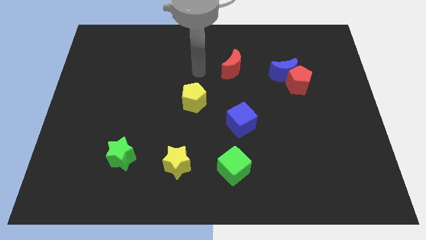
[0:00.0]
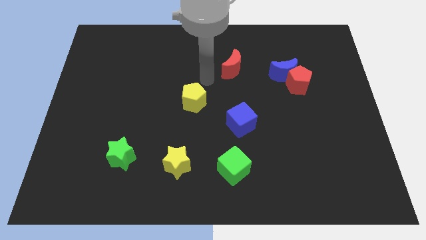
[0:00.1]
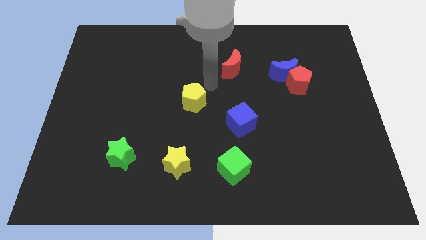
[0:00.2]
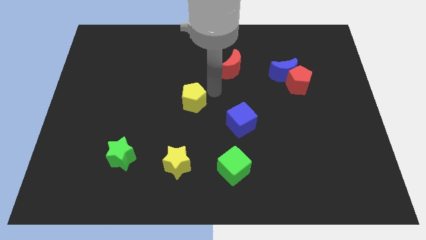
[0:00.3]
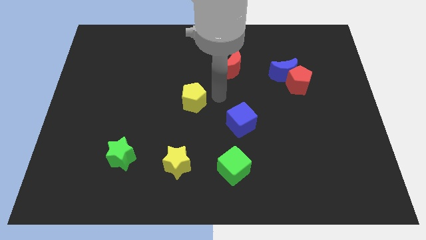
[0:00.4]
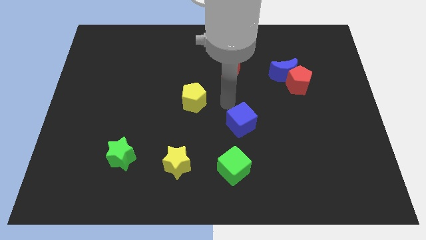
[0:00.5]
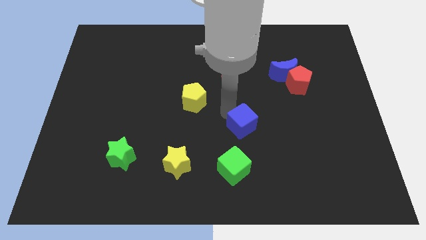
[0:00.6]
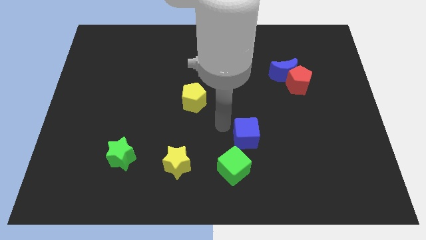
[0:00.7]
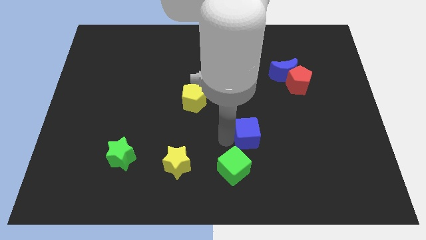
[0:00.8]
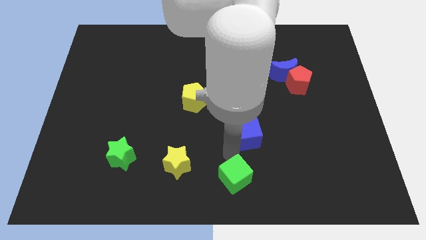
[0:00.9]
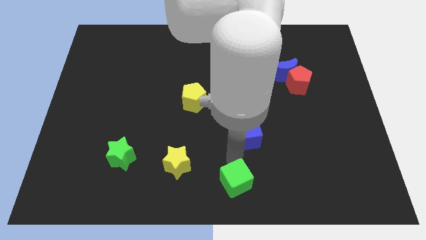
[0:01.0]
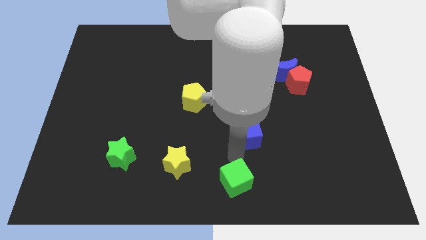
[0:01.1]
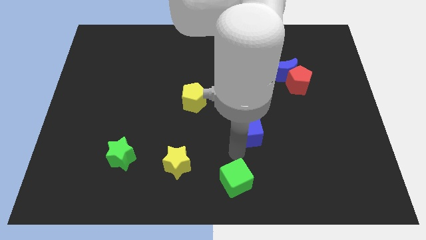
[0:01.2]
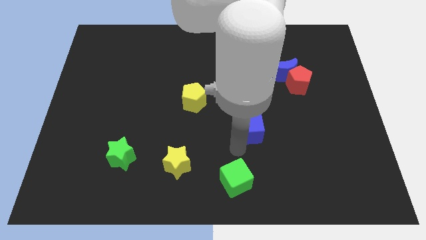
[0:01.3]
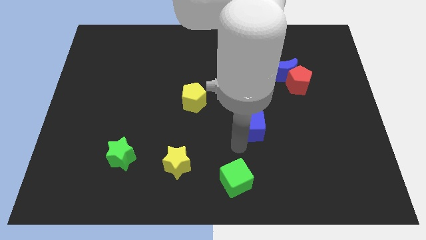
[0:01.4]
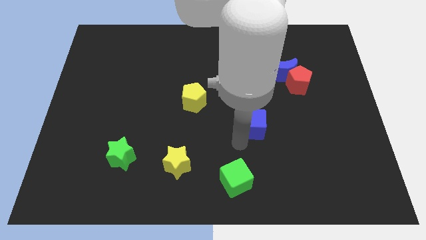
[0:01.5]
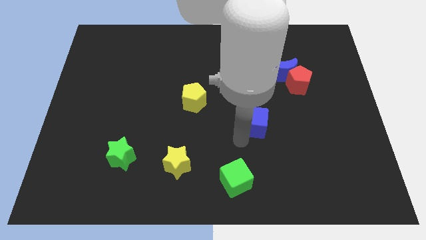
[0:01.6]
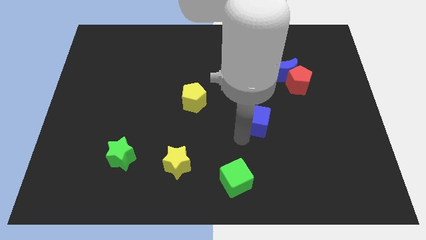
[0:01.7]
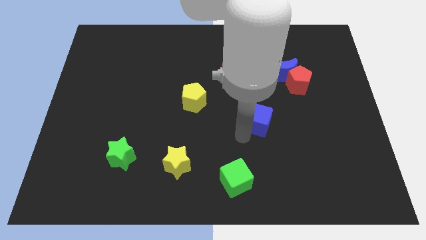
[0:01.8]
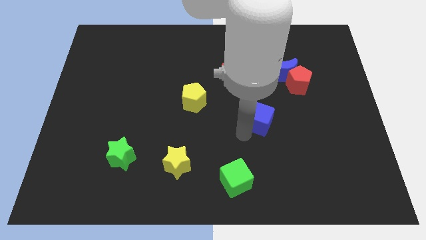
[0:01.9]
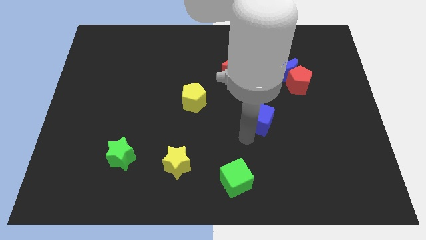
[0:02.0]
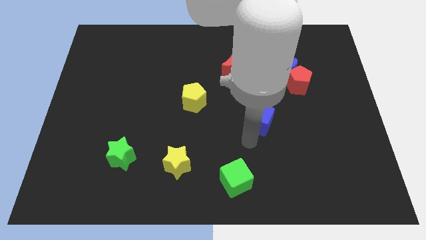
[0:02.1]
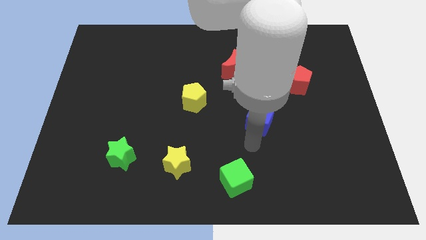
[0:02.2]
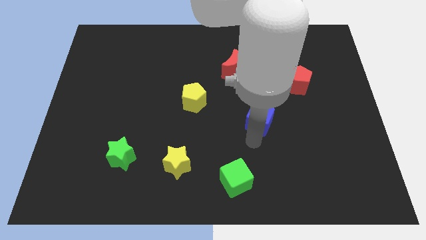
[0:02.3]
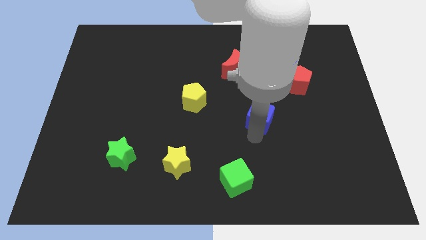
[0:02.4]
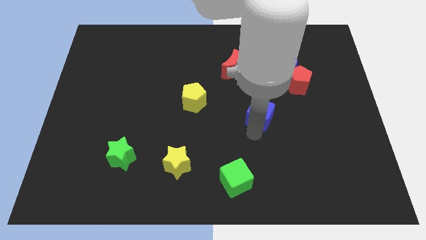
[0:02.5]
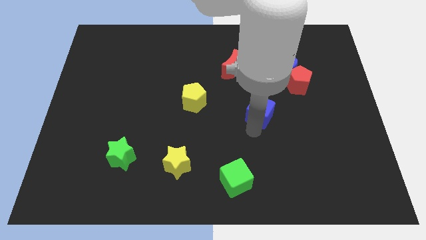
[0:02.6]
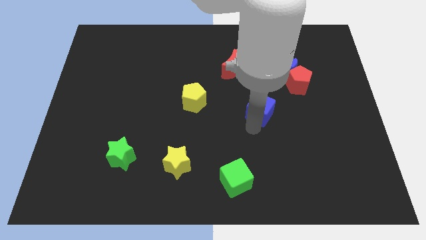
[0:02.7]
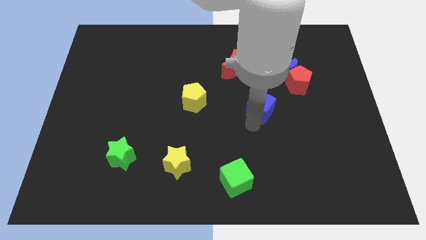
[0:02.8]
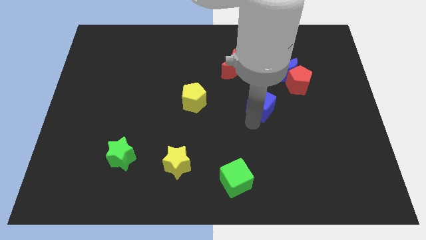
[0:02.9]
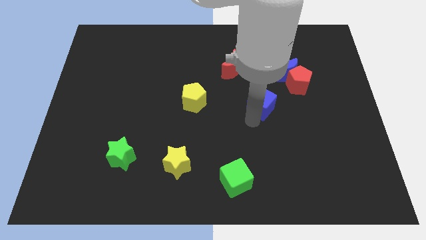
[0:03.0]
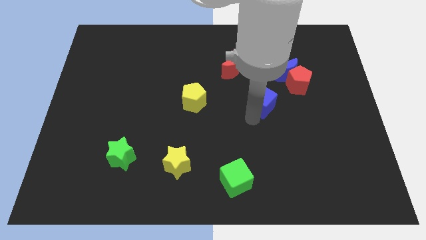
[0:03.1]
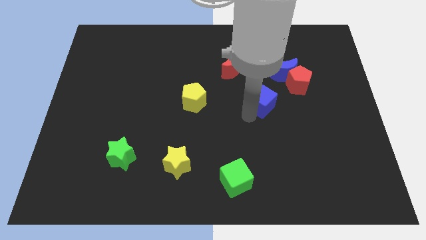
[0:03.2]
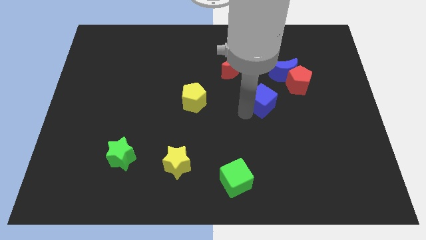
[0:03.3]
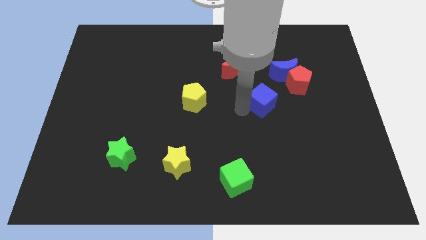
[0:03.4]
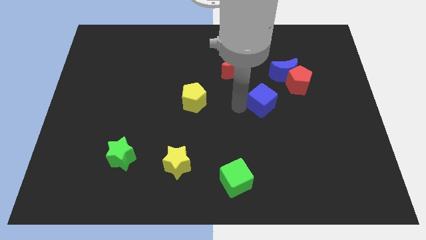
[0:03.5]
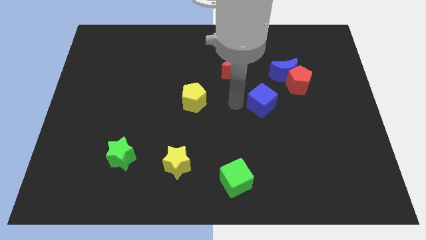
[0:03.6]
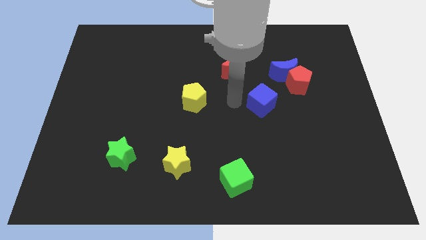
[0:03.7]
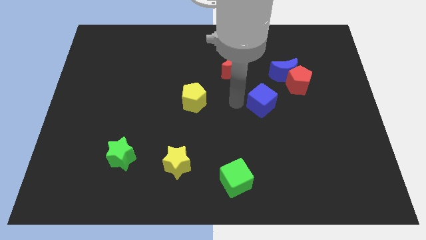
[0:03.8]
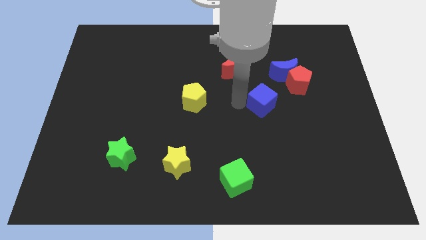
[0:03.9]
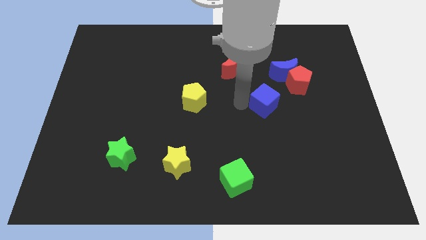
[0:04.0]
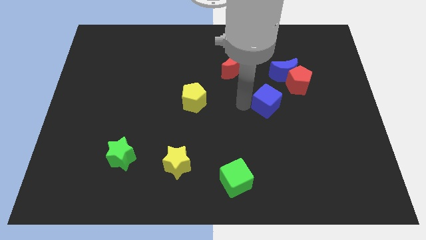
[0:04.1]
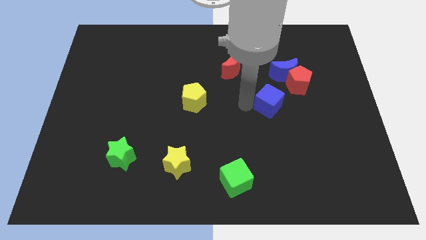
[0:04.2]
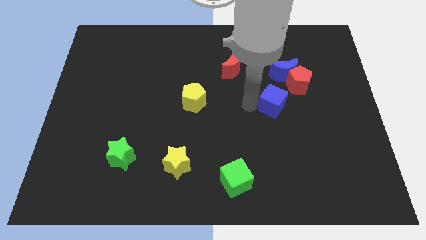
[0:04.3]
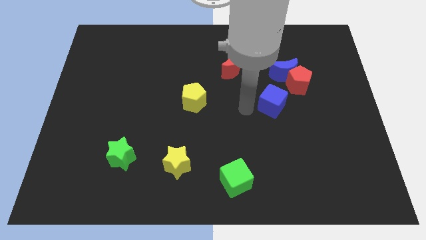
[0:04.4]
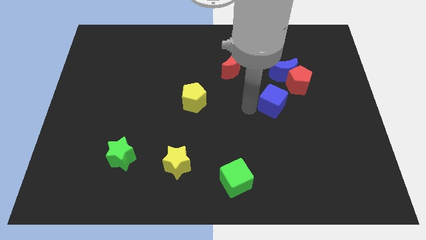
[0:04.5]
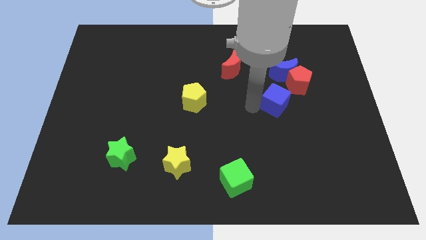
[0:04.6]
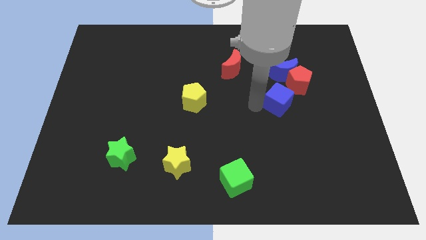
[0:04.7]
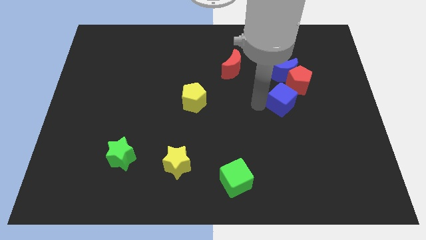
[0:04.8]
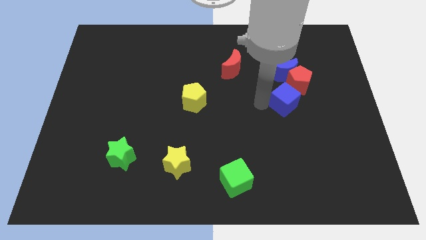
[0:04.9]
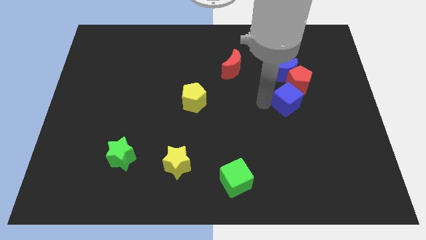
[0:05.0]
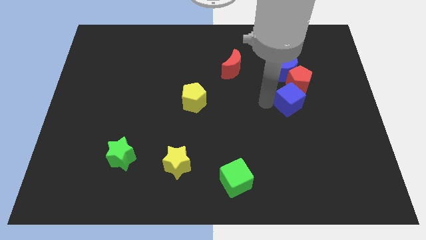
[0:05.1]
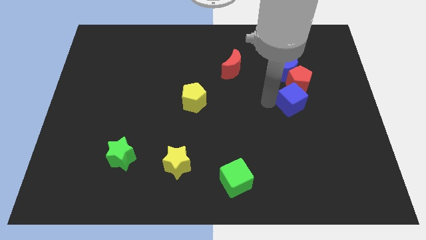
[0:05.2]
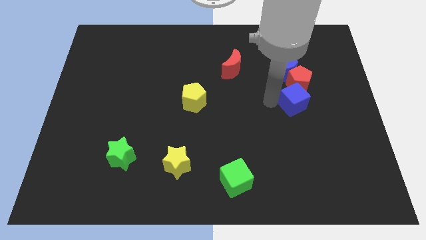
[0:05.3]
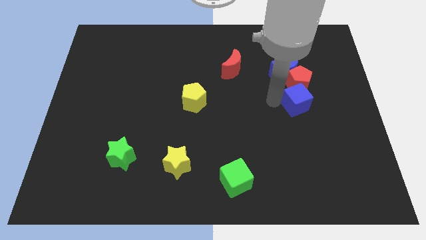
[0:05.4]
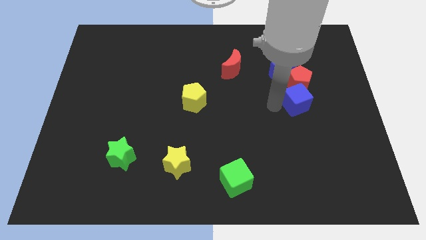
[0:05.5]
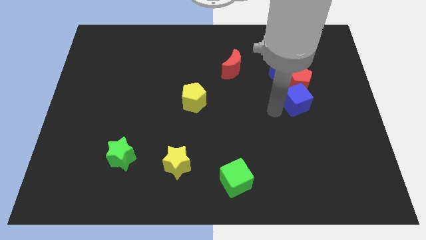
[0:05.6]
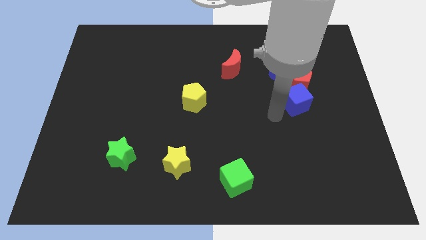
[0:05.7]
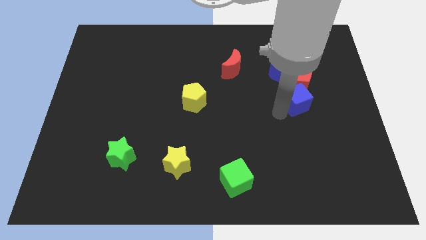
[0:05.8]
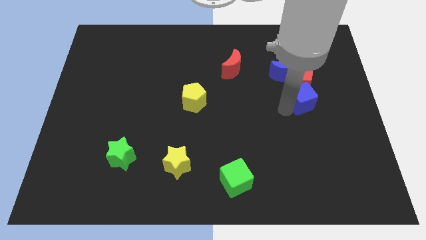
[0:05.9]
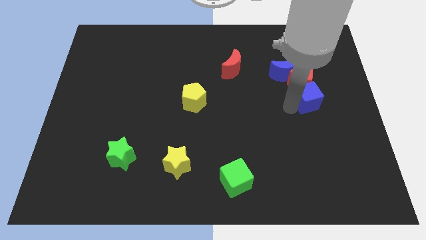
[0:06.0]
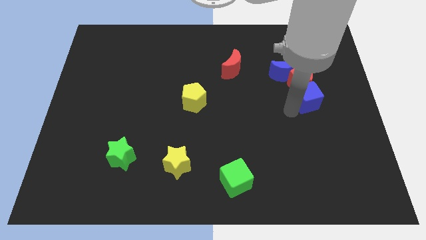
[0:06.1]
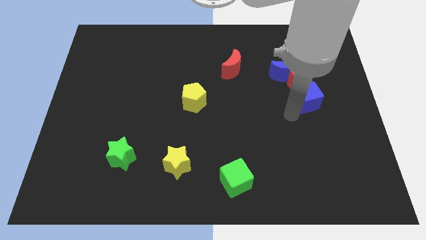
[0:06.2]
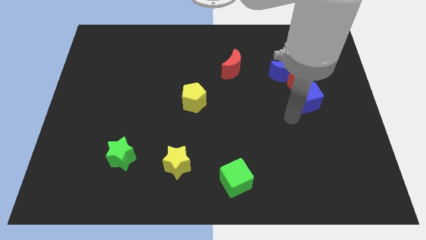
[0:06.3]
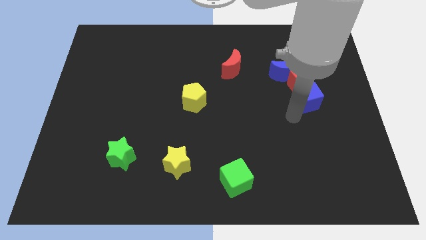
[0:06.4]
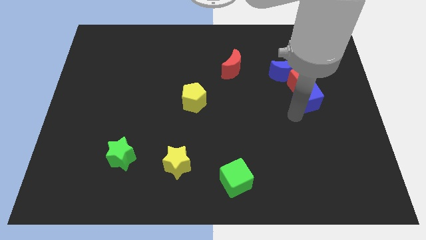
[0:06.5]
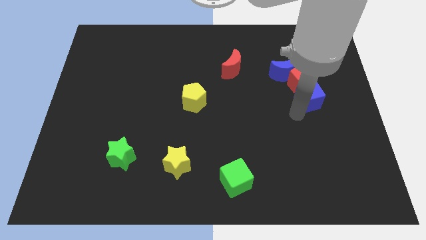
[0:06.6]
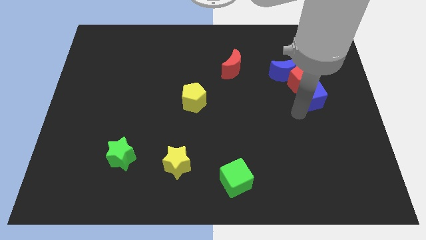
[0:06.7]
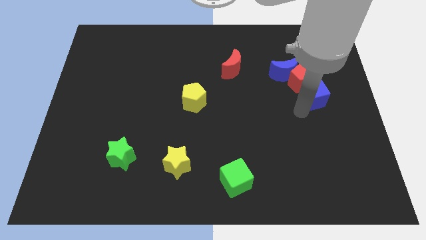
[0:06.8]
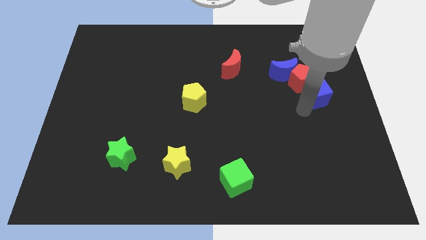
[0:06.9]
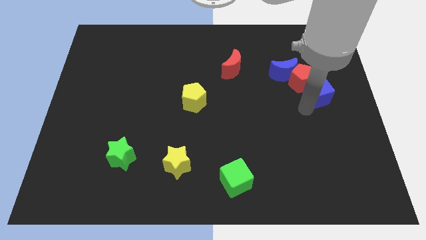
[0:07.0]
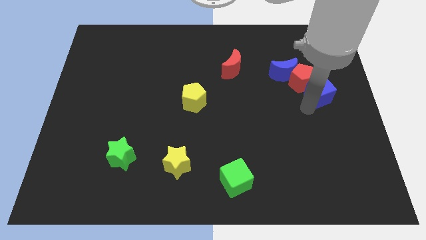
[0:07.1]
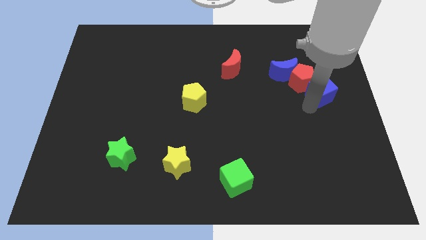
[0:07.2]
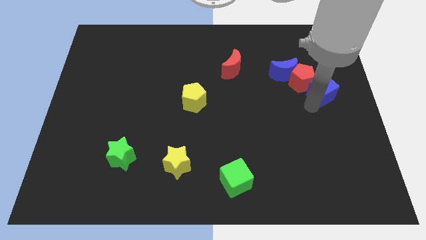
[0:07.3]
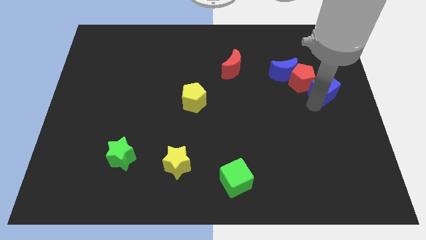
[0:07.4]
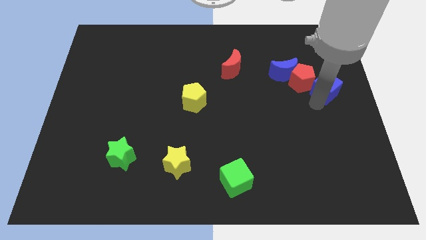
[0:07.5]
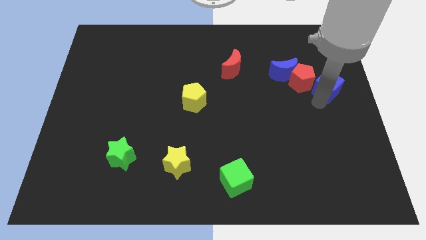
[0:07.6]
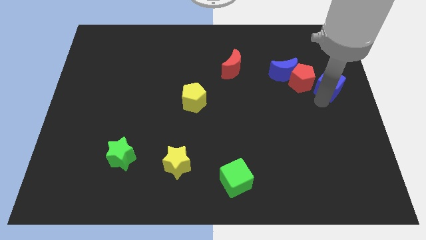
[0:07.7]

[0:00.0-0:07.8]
push the blue cube just right of the blue moon
